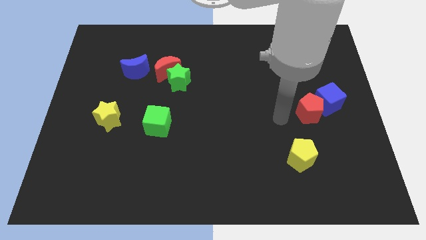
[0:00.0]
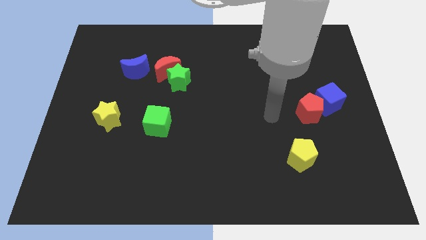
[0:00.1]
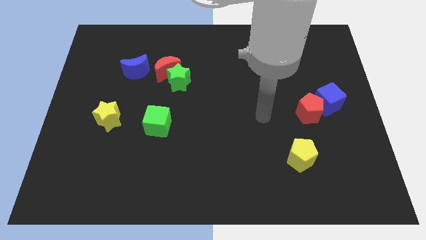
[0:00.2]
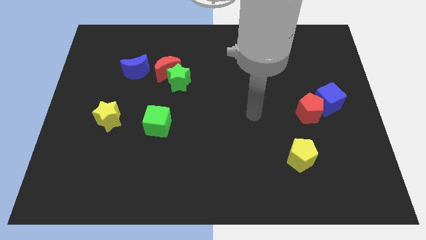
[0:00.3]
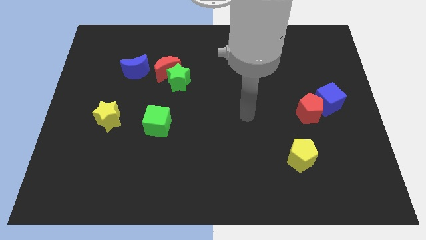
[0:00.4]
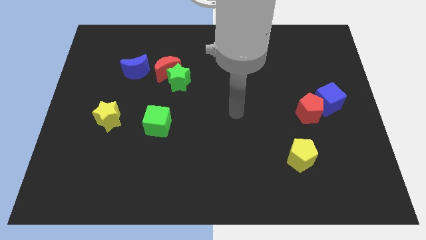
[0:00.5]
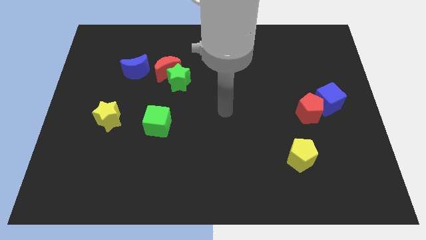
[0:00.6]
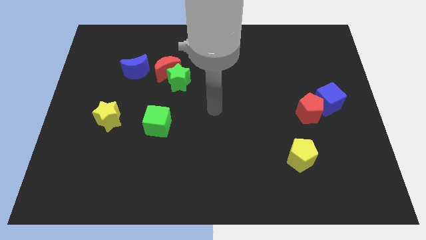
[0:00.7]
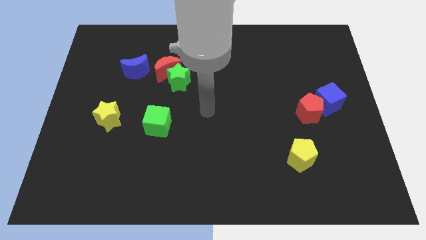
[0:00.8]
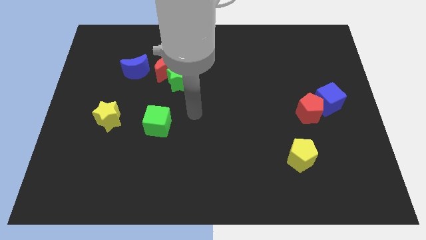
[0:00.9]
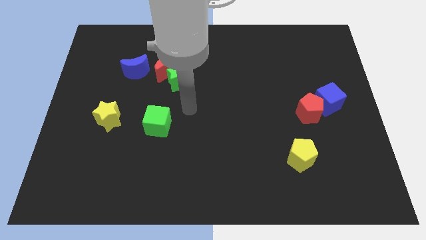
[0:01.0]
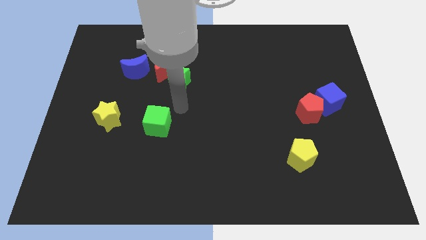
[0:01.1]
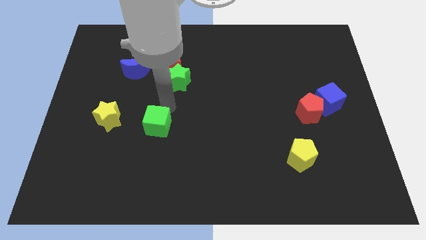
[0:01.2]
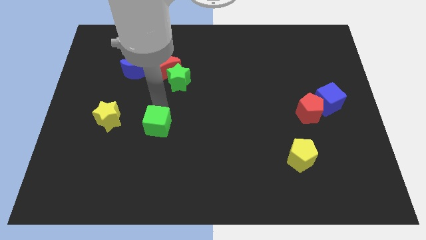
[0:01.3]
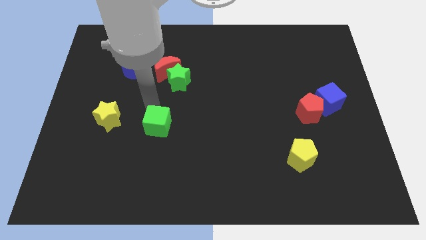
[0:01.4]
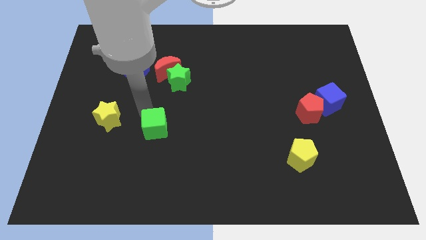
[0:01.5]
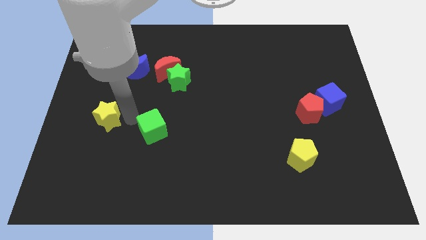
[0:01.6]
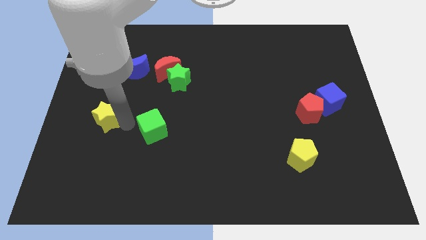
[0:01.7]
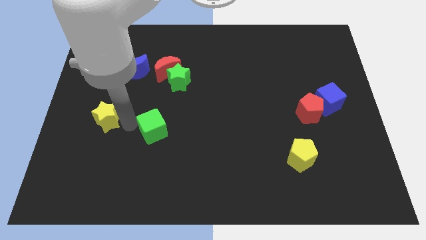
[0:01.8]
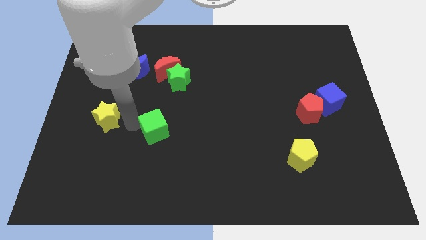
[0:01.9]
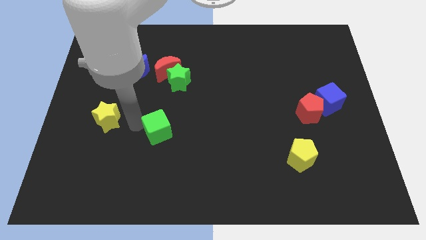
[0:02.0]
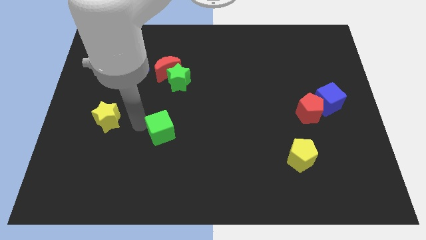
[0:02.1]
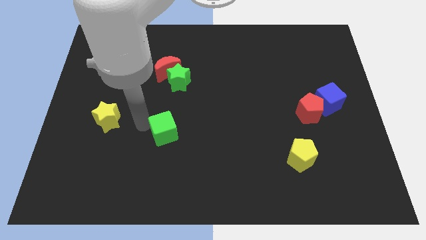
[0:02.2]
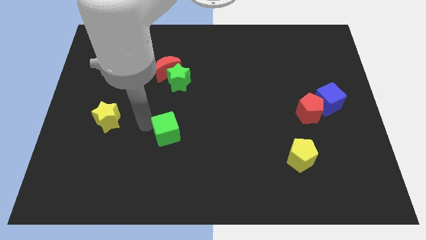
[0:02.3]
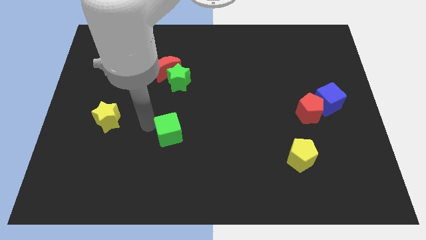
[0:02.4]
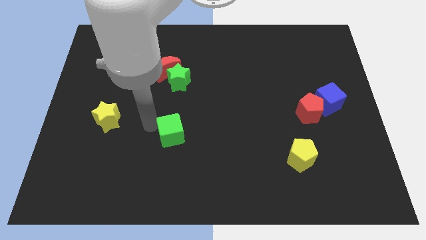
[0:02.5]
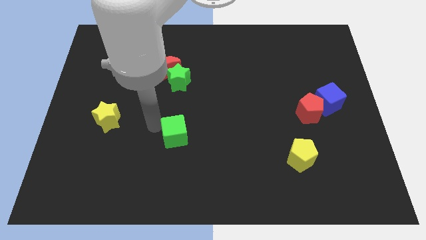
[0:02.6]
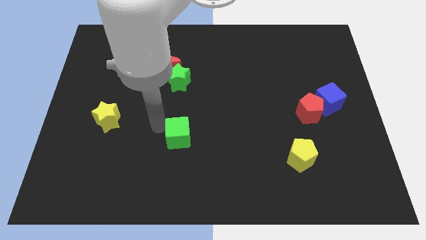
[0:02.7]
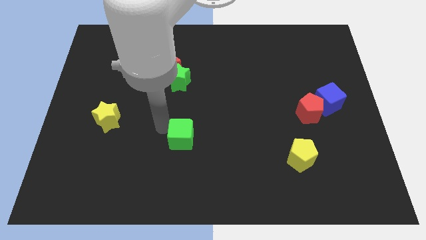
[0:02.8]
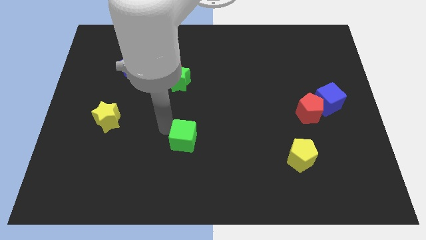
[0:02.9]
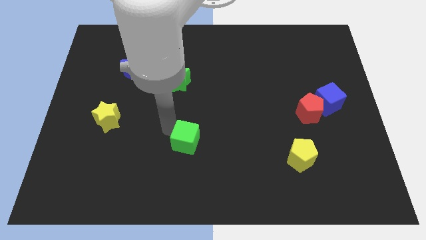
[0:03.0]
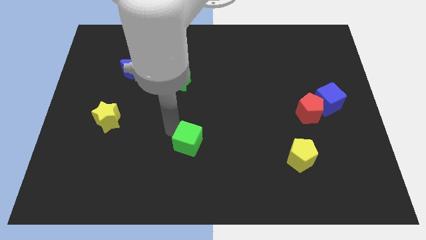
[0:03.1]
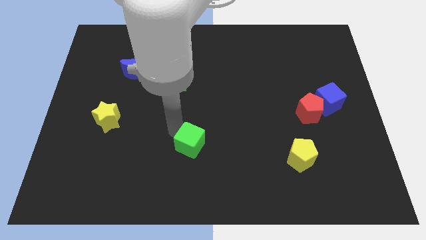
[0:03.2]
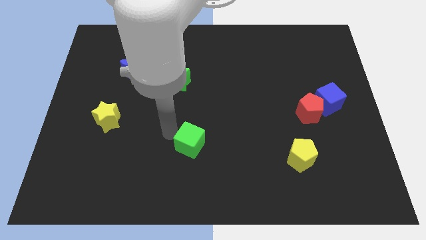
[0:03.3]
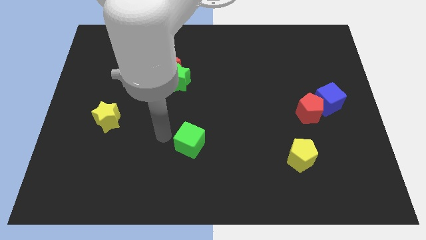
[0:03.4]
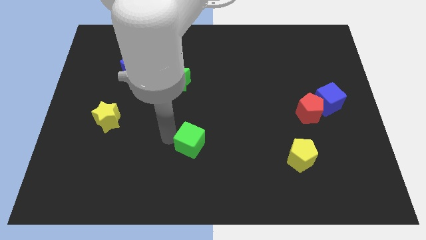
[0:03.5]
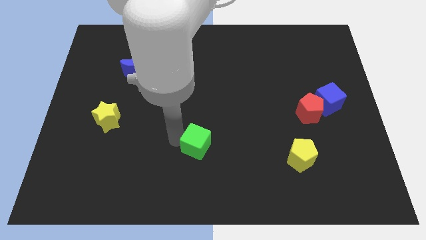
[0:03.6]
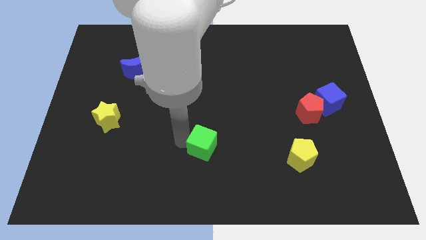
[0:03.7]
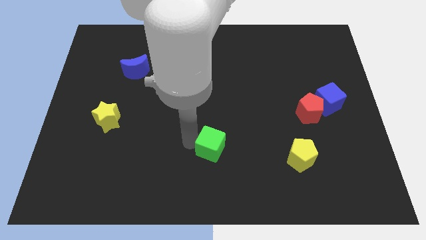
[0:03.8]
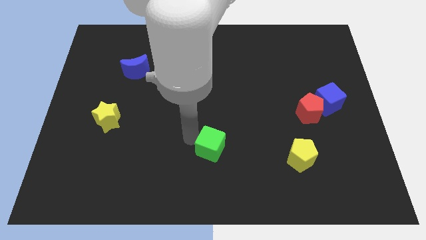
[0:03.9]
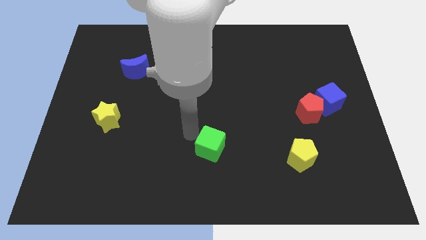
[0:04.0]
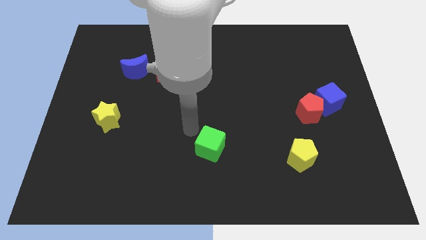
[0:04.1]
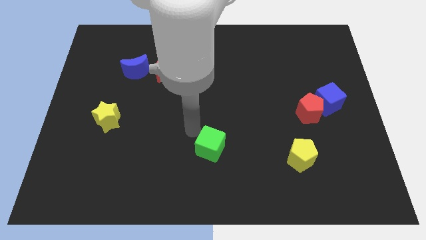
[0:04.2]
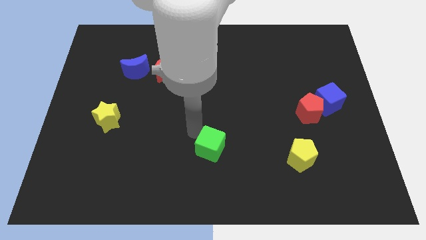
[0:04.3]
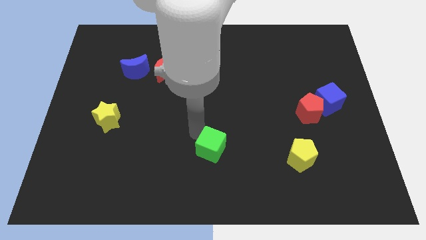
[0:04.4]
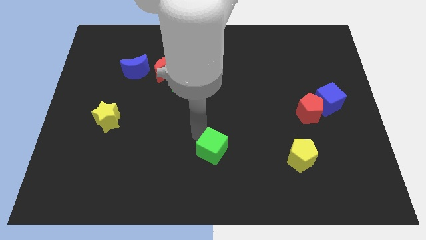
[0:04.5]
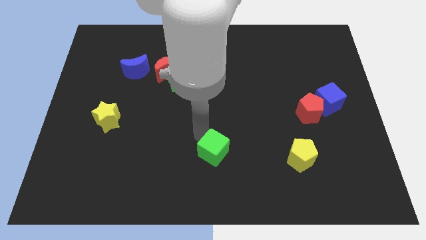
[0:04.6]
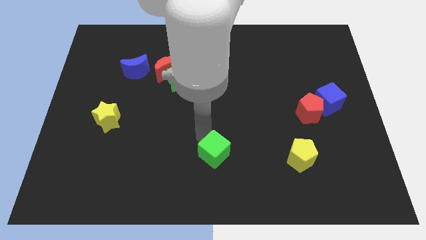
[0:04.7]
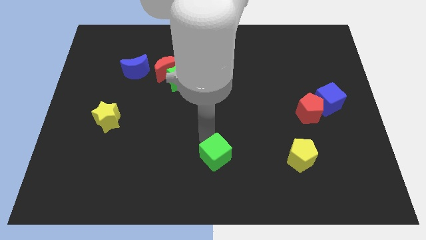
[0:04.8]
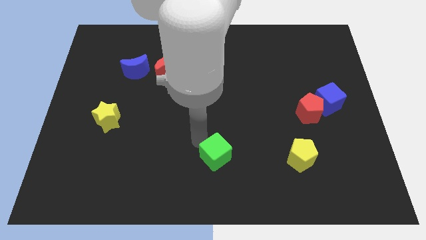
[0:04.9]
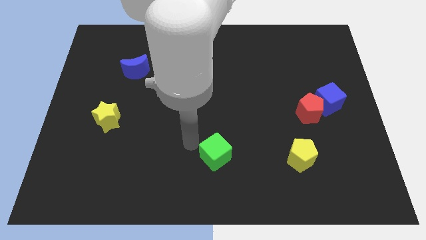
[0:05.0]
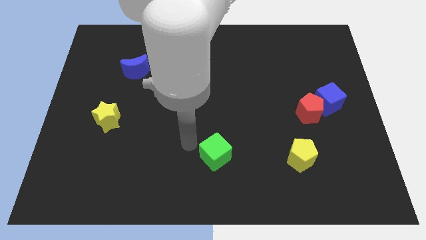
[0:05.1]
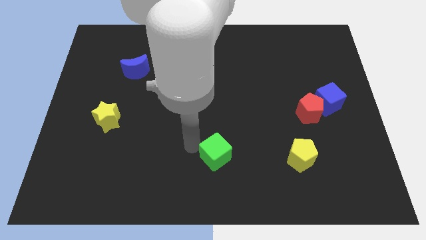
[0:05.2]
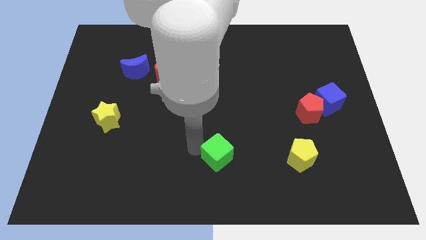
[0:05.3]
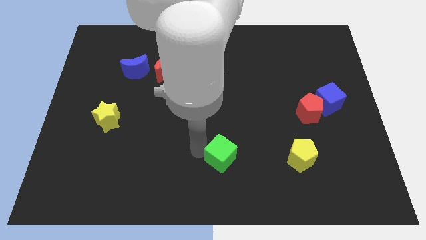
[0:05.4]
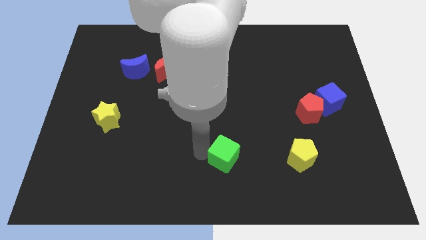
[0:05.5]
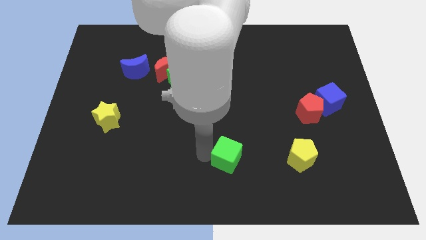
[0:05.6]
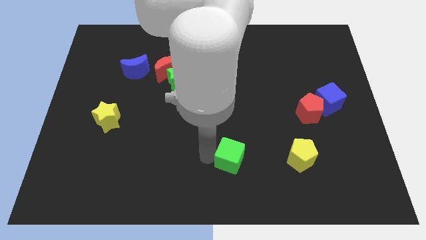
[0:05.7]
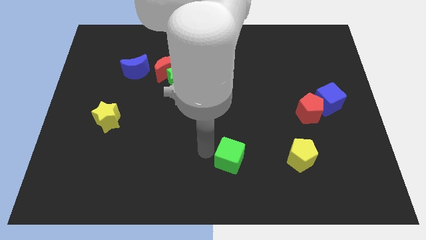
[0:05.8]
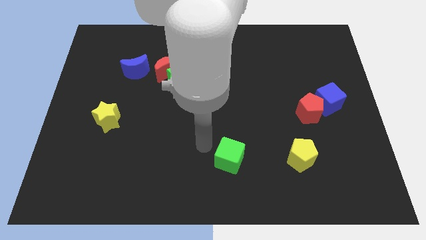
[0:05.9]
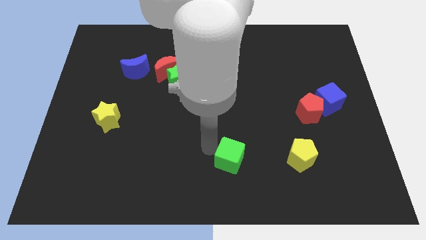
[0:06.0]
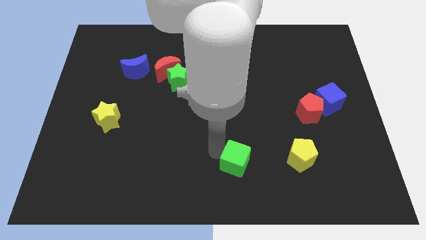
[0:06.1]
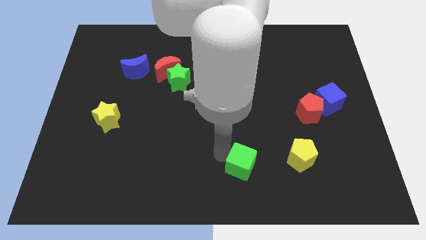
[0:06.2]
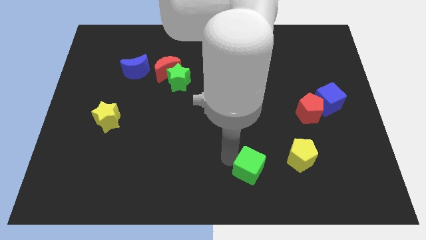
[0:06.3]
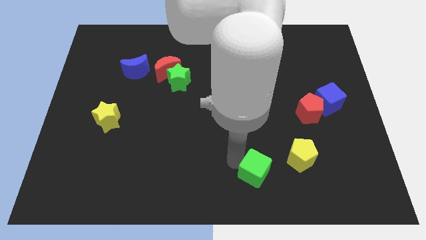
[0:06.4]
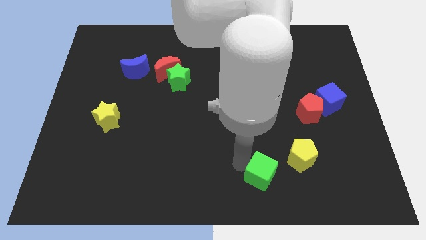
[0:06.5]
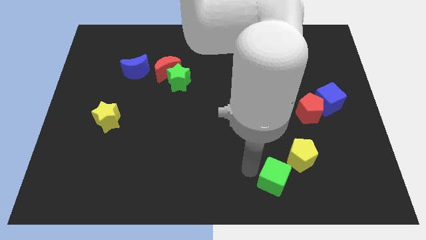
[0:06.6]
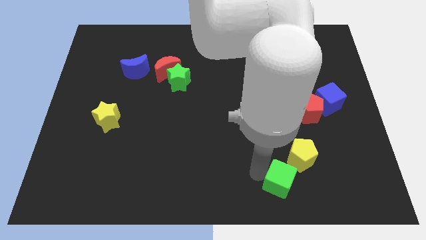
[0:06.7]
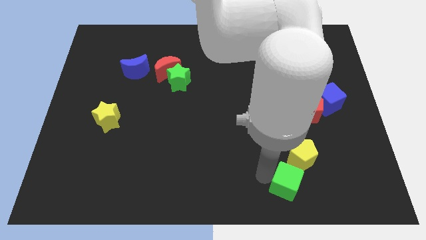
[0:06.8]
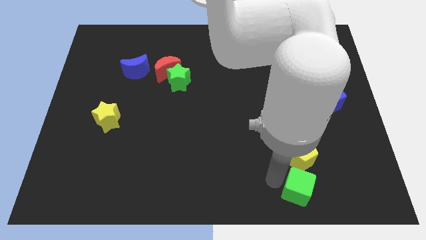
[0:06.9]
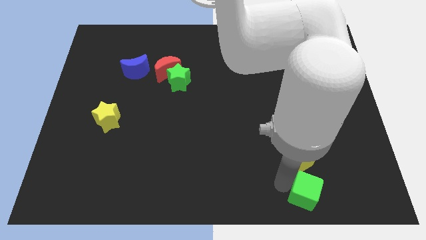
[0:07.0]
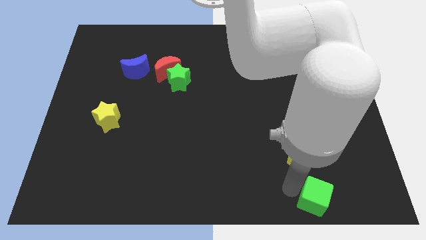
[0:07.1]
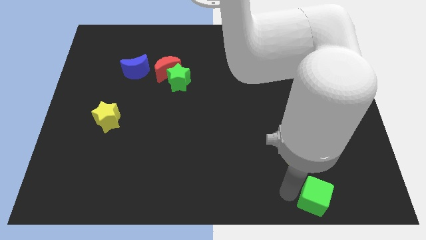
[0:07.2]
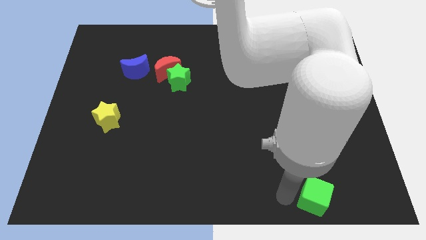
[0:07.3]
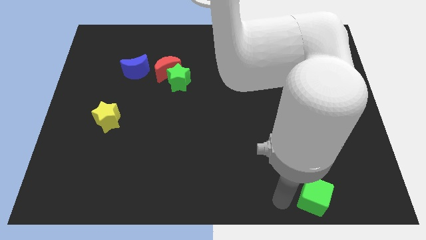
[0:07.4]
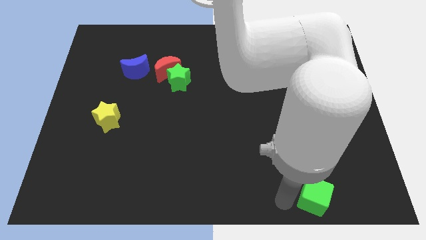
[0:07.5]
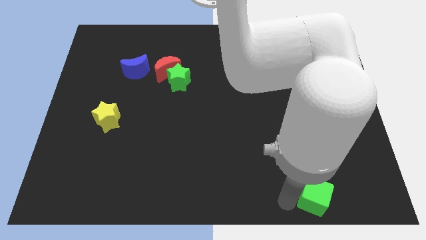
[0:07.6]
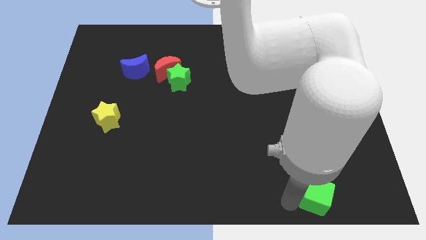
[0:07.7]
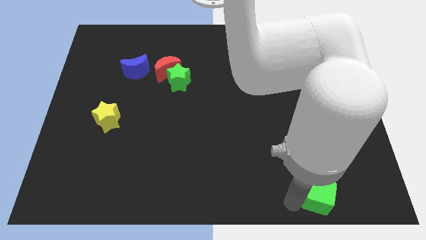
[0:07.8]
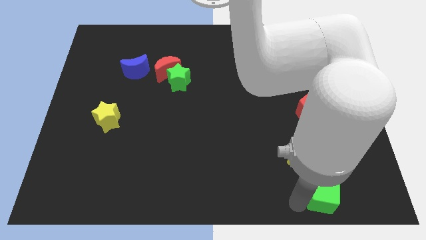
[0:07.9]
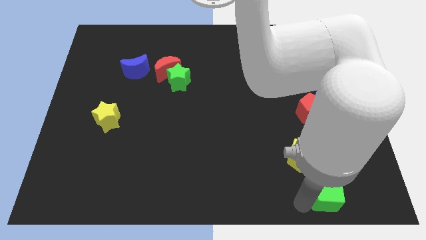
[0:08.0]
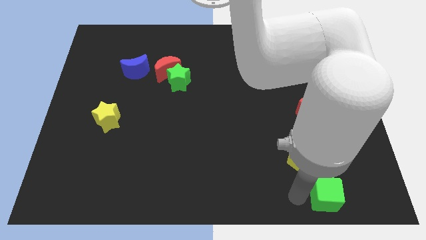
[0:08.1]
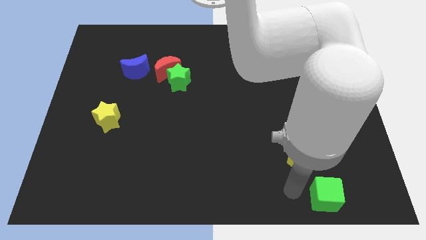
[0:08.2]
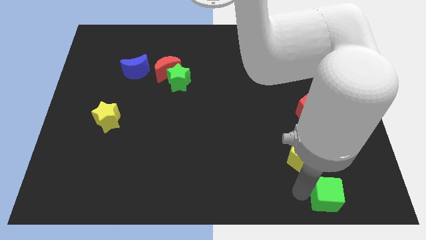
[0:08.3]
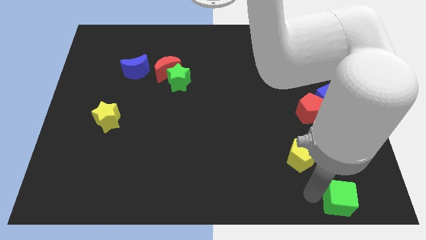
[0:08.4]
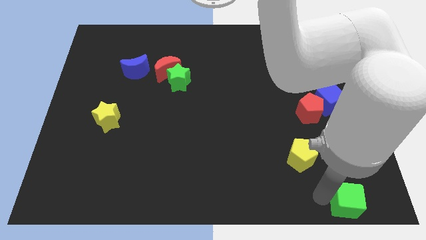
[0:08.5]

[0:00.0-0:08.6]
push the green cube to the lower right corner

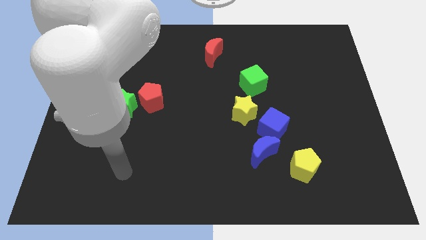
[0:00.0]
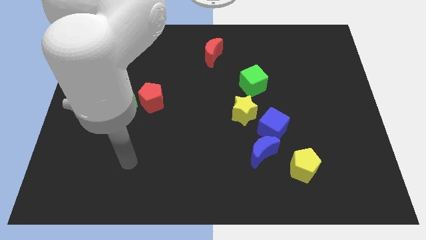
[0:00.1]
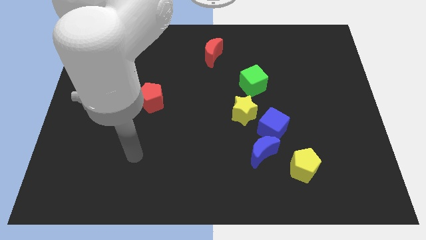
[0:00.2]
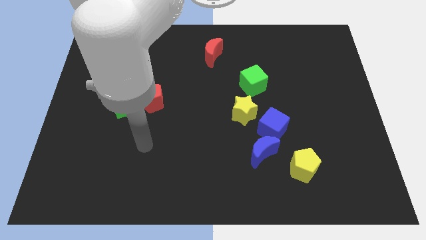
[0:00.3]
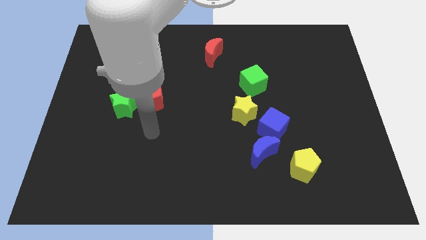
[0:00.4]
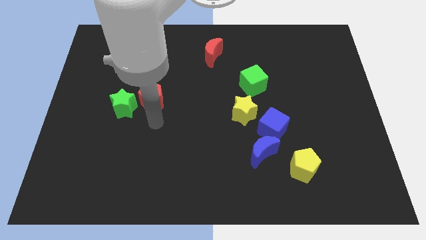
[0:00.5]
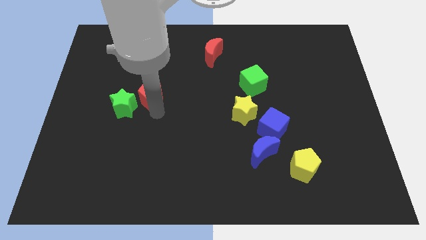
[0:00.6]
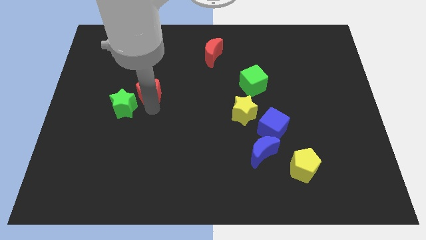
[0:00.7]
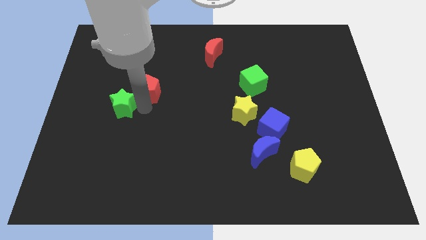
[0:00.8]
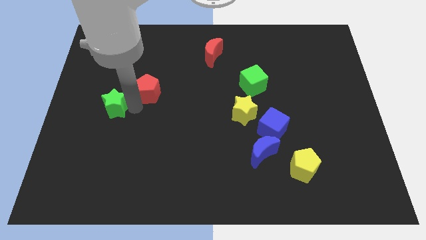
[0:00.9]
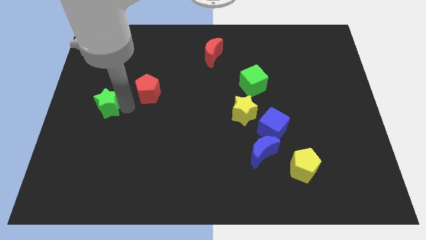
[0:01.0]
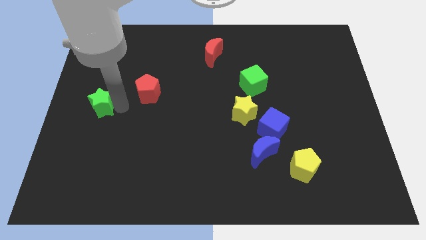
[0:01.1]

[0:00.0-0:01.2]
slide the green star to the center left
